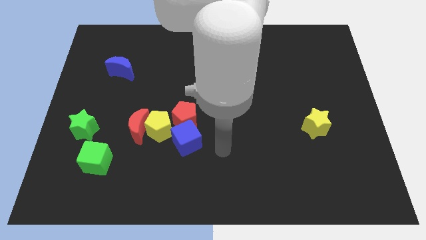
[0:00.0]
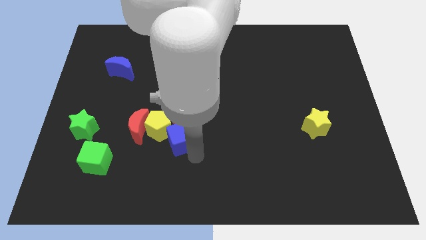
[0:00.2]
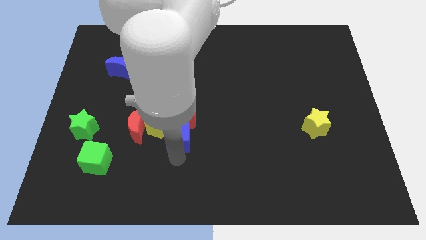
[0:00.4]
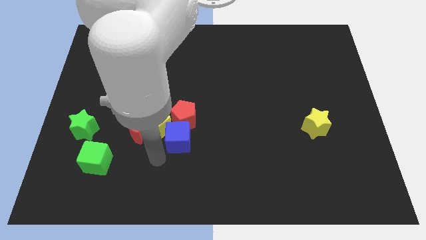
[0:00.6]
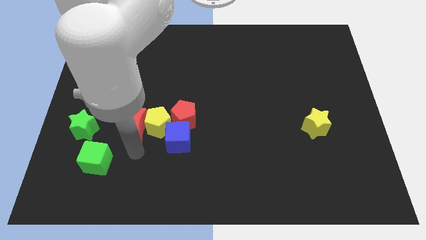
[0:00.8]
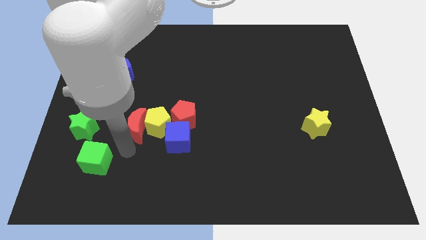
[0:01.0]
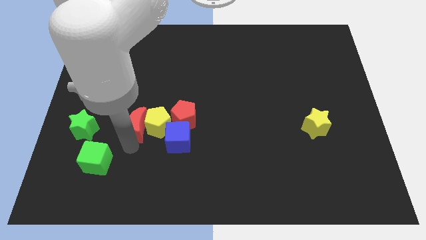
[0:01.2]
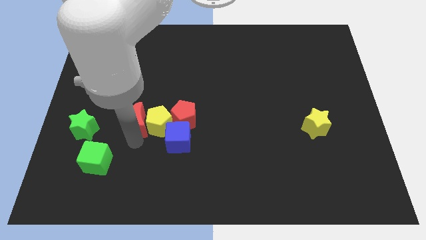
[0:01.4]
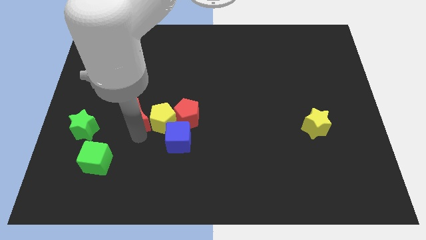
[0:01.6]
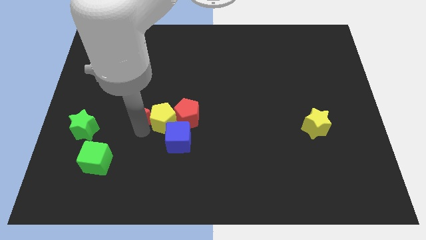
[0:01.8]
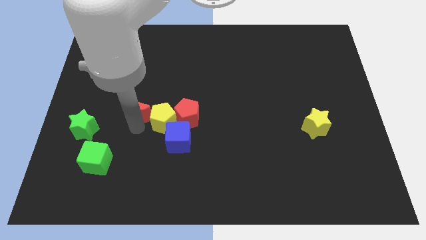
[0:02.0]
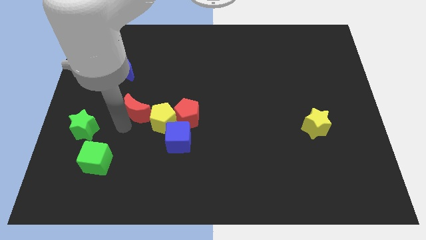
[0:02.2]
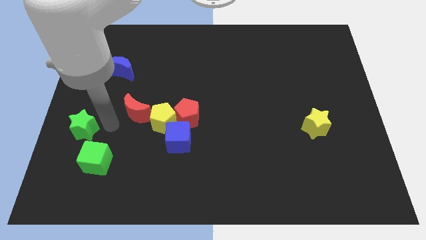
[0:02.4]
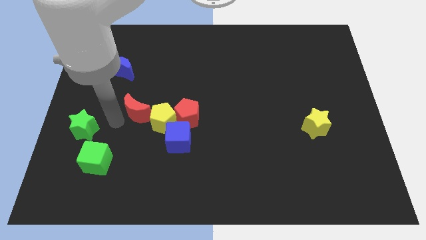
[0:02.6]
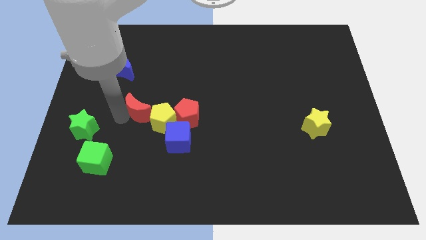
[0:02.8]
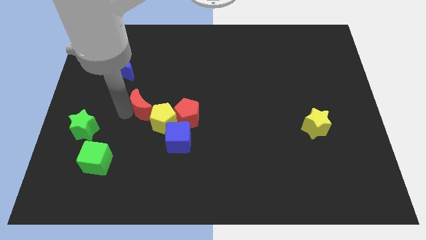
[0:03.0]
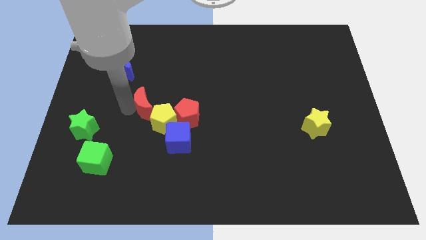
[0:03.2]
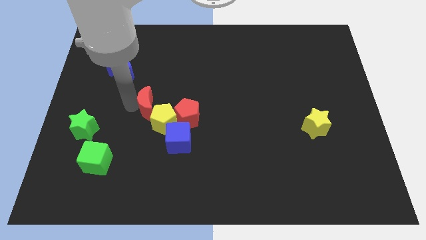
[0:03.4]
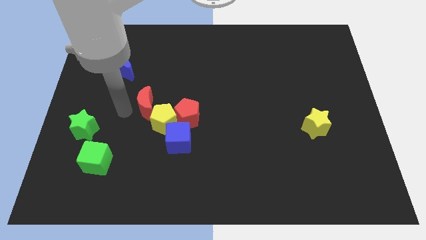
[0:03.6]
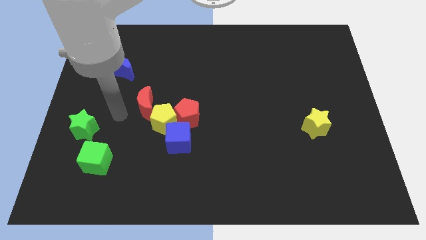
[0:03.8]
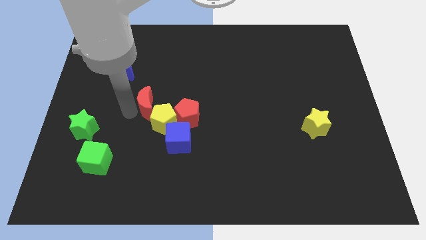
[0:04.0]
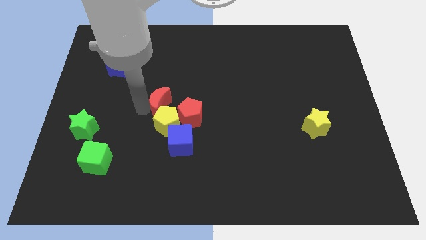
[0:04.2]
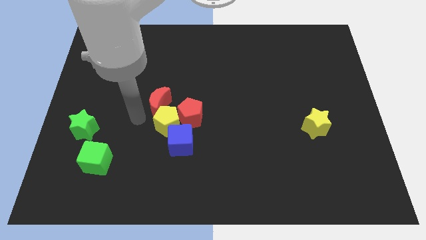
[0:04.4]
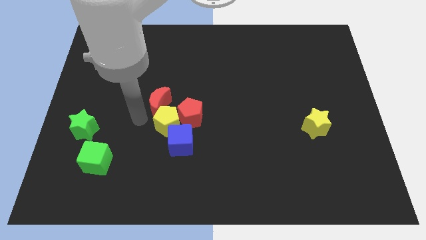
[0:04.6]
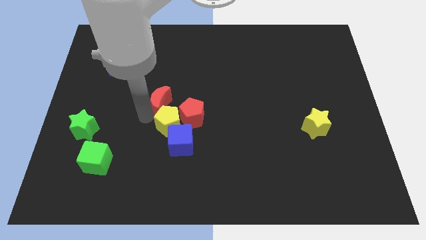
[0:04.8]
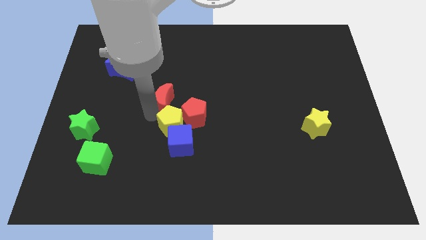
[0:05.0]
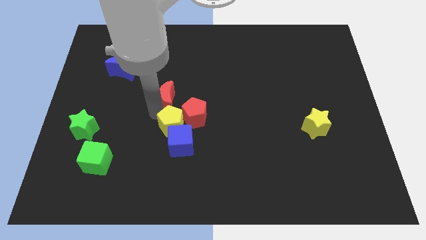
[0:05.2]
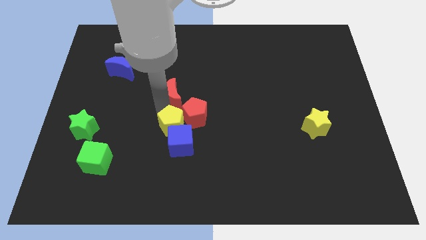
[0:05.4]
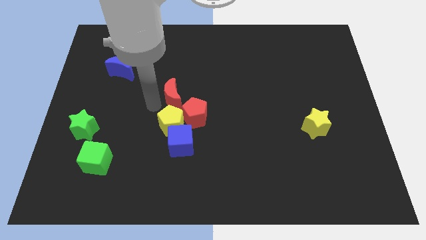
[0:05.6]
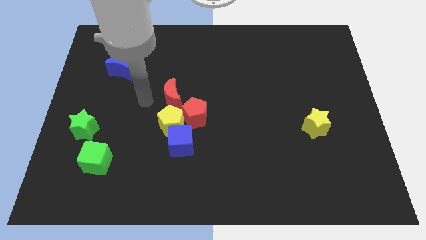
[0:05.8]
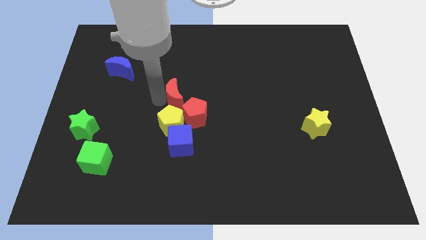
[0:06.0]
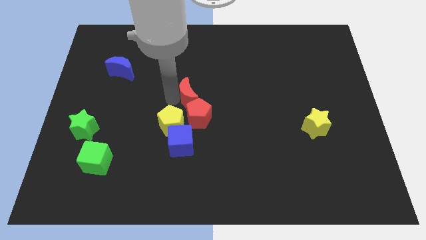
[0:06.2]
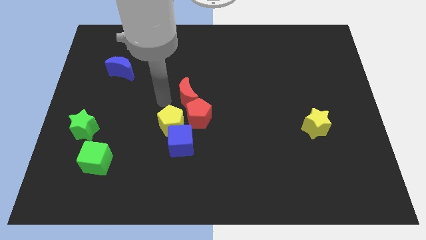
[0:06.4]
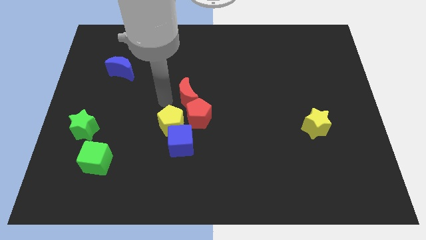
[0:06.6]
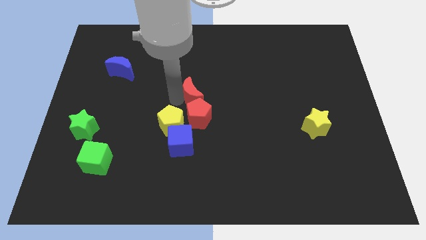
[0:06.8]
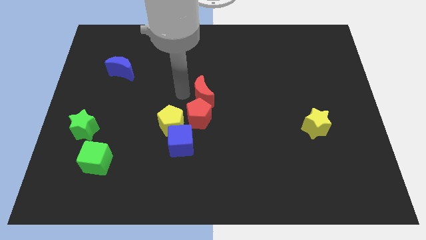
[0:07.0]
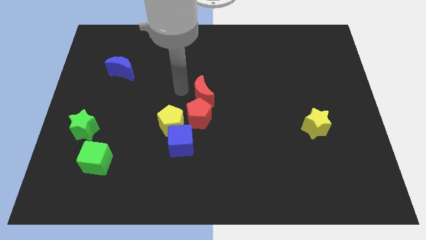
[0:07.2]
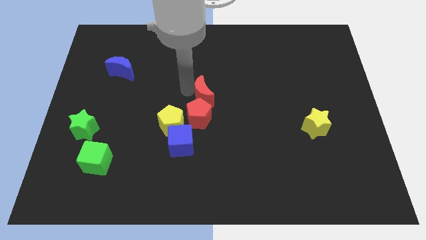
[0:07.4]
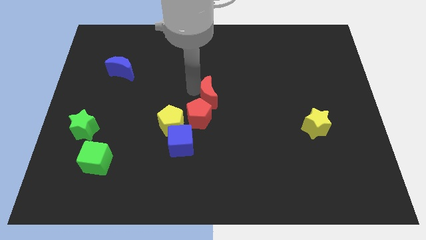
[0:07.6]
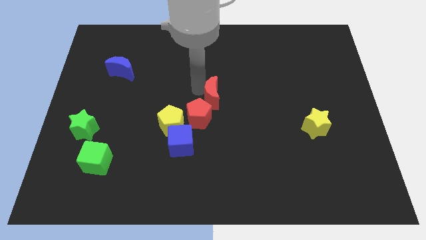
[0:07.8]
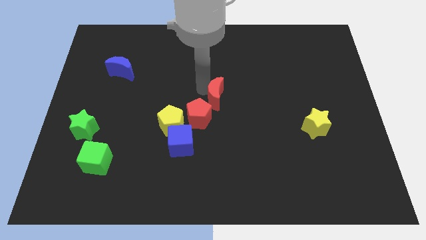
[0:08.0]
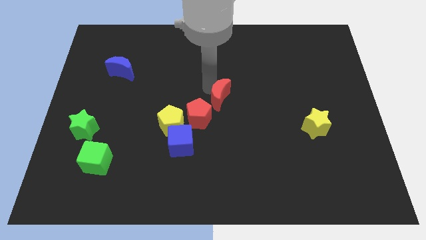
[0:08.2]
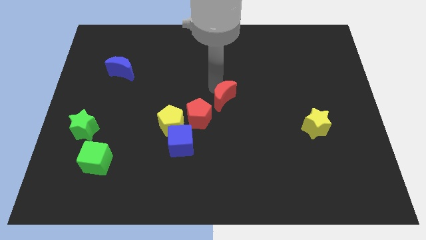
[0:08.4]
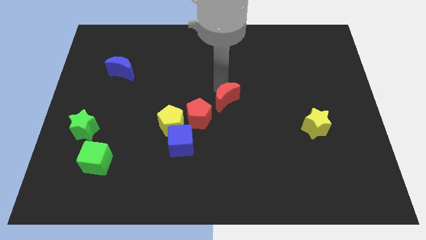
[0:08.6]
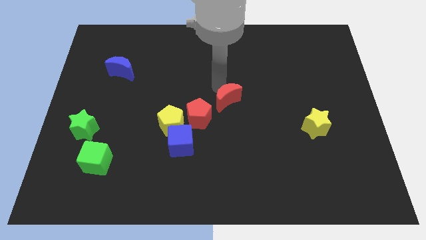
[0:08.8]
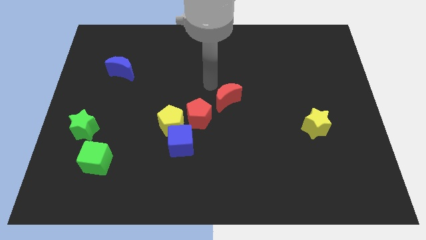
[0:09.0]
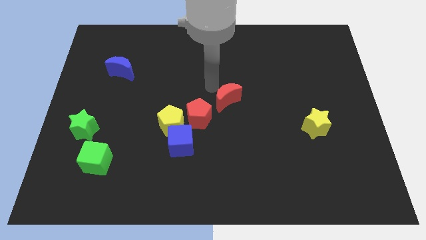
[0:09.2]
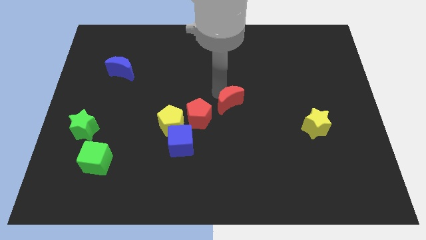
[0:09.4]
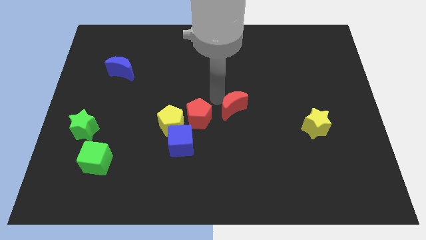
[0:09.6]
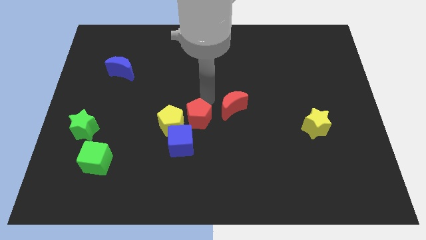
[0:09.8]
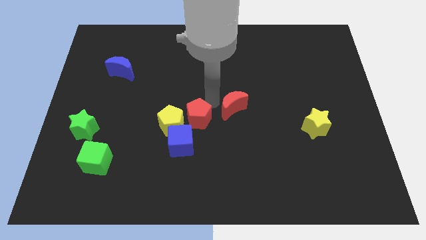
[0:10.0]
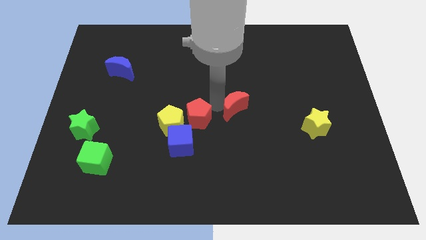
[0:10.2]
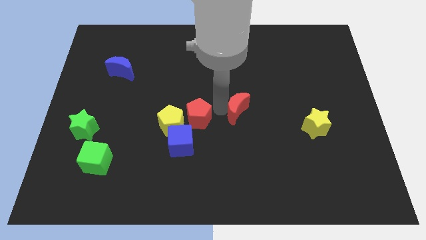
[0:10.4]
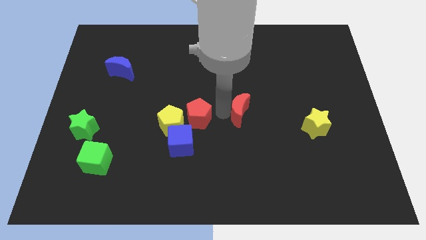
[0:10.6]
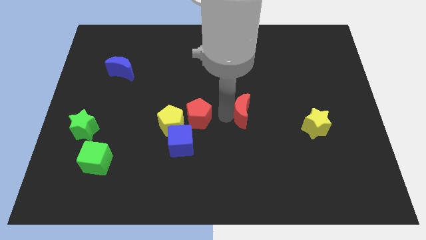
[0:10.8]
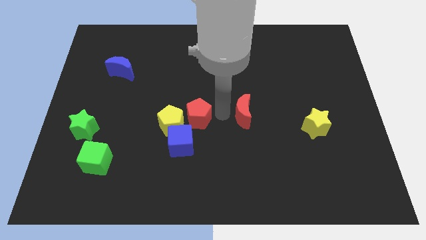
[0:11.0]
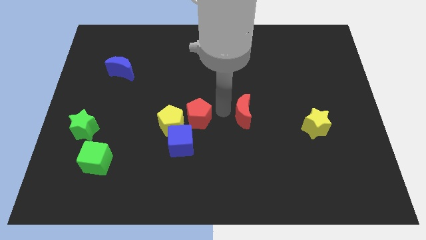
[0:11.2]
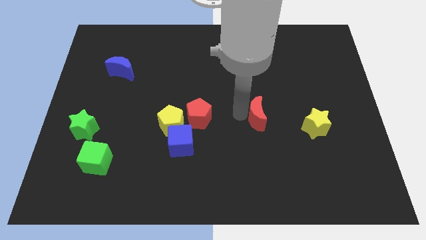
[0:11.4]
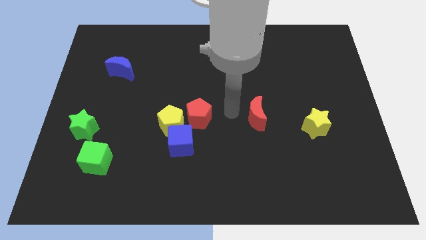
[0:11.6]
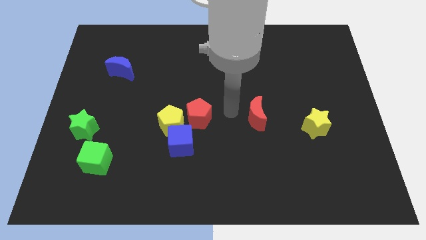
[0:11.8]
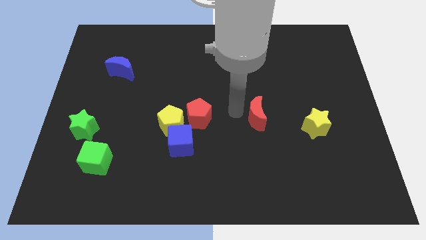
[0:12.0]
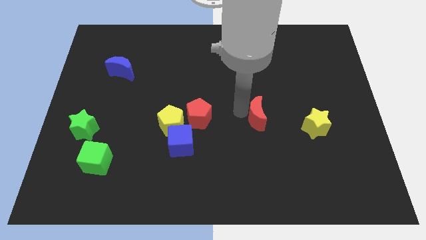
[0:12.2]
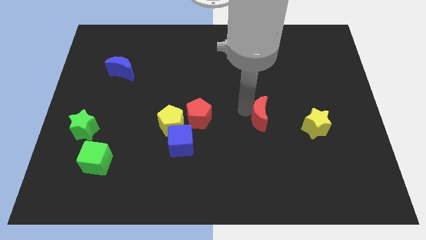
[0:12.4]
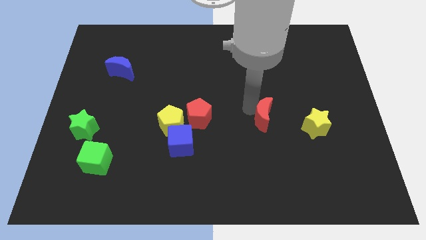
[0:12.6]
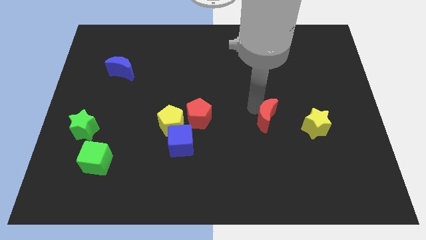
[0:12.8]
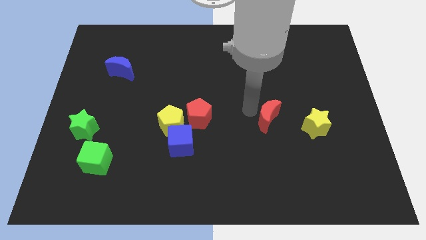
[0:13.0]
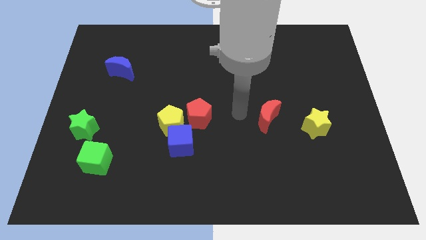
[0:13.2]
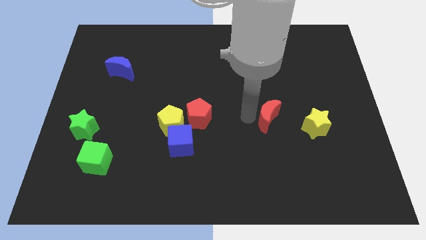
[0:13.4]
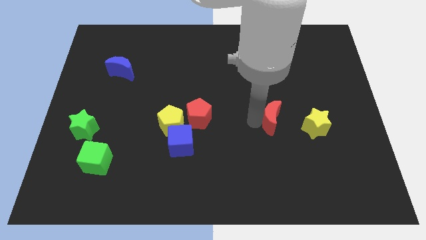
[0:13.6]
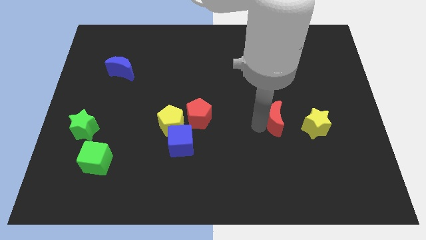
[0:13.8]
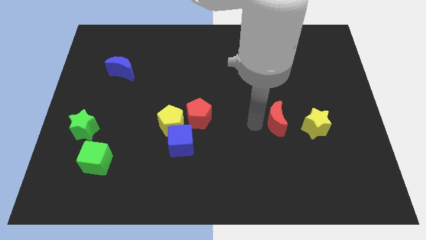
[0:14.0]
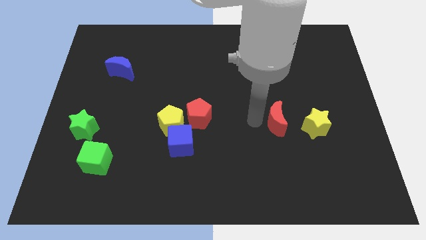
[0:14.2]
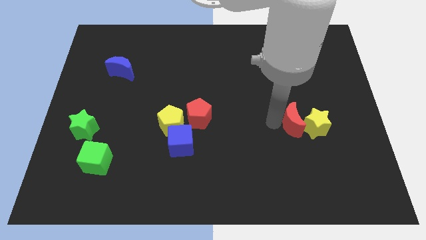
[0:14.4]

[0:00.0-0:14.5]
put the red moon next to the yellow star
